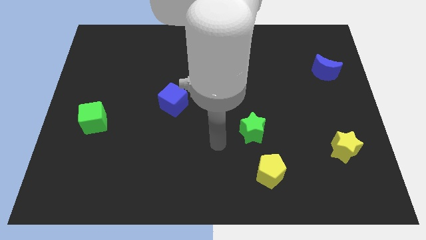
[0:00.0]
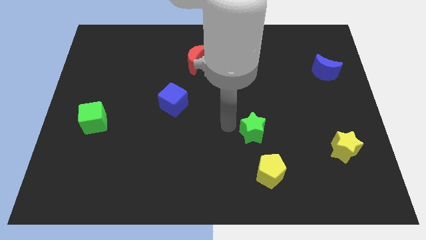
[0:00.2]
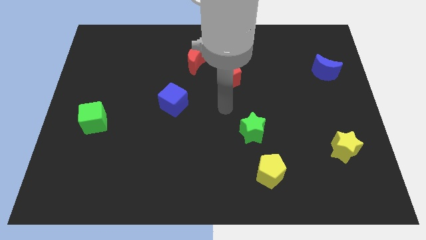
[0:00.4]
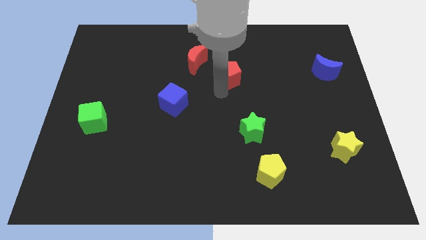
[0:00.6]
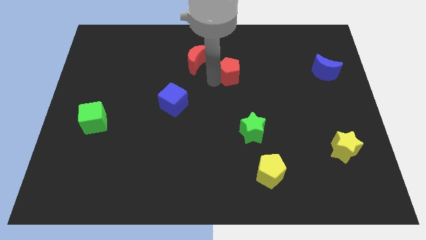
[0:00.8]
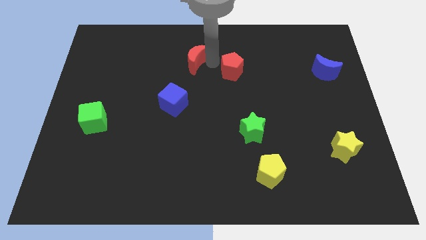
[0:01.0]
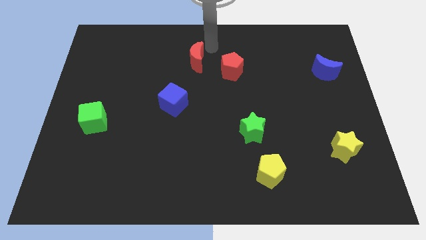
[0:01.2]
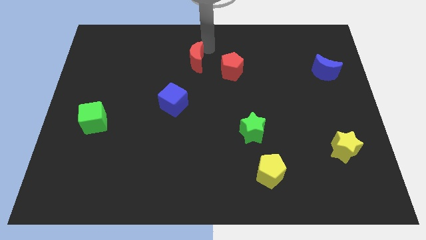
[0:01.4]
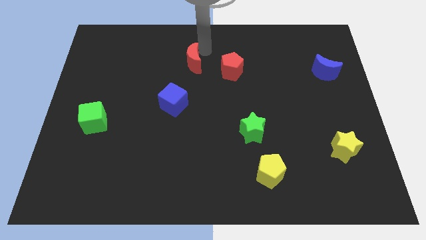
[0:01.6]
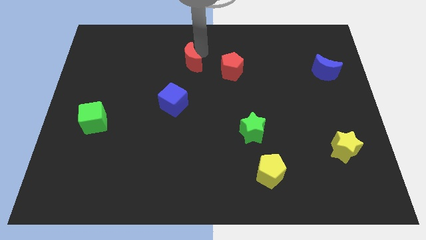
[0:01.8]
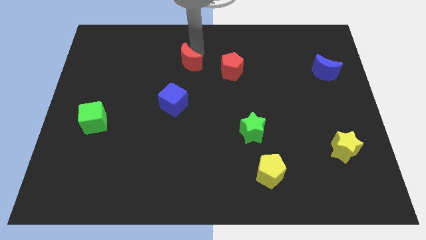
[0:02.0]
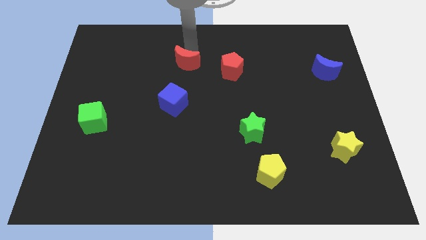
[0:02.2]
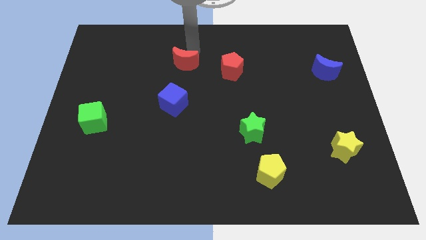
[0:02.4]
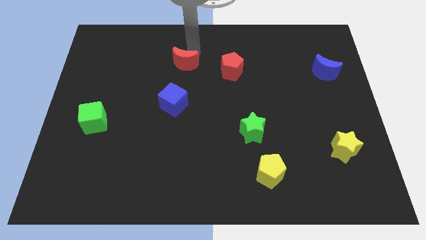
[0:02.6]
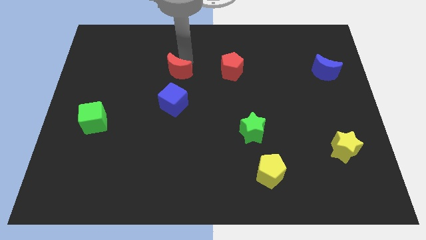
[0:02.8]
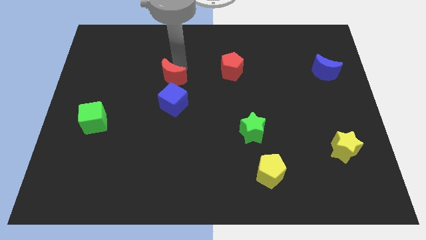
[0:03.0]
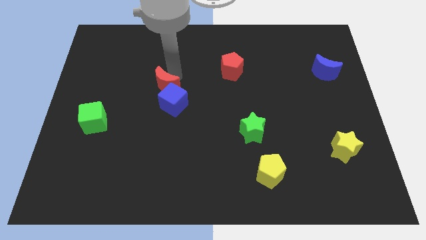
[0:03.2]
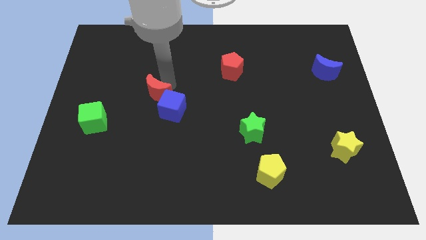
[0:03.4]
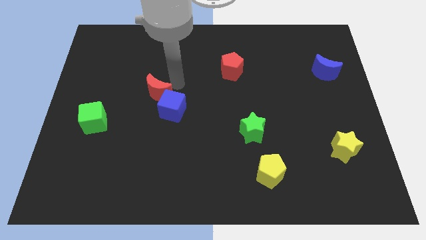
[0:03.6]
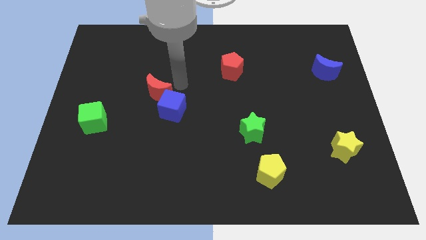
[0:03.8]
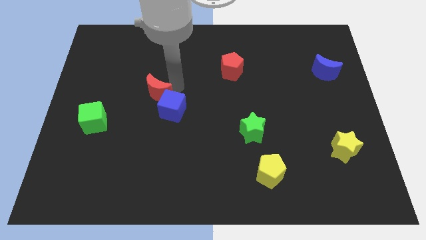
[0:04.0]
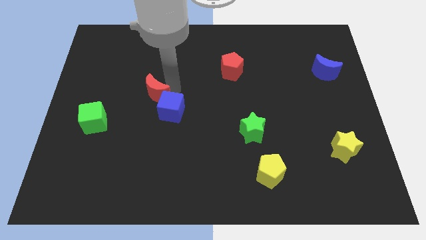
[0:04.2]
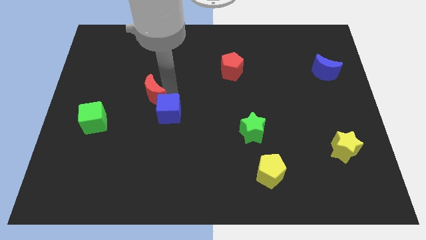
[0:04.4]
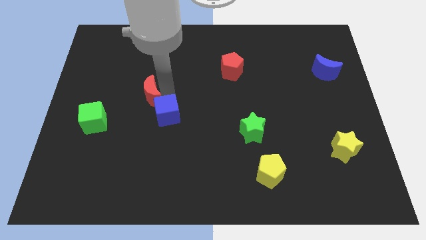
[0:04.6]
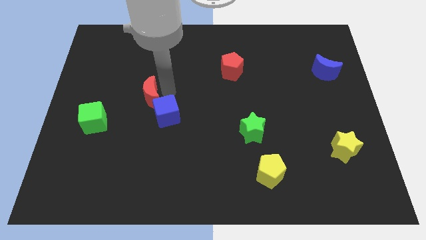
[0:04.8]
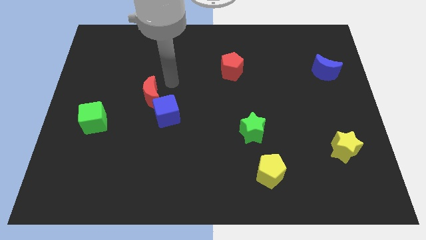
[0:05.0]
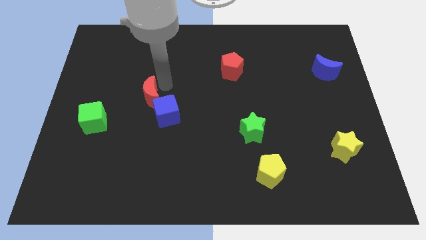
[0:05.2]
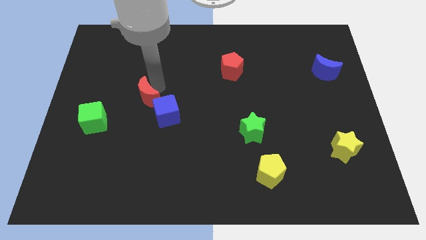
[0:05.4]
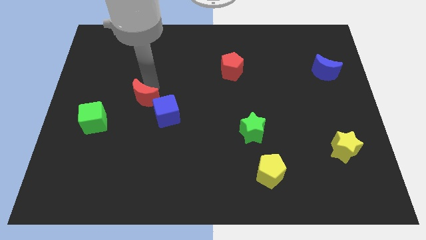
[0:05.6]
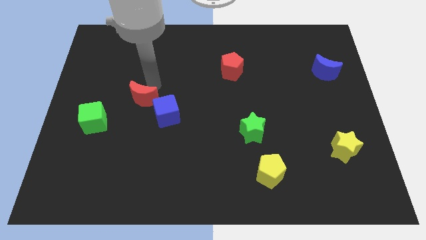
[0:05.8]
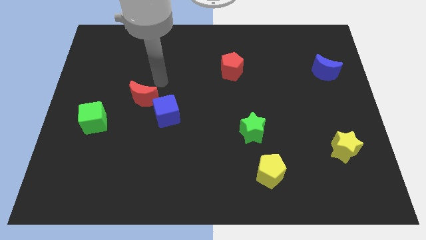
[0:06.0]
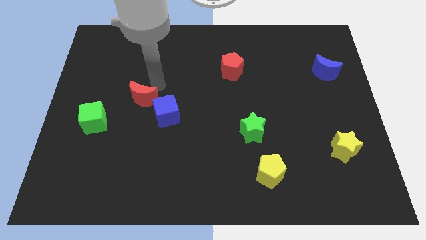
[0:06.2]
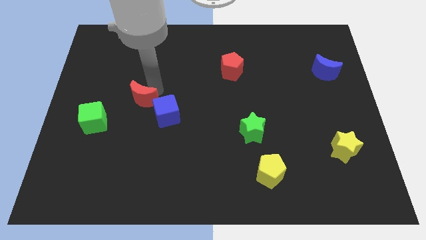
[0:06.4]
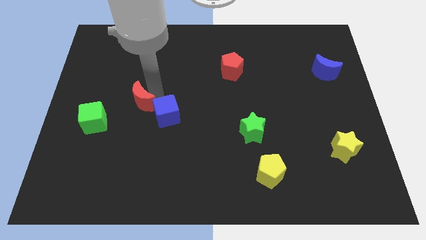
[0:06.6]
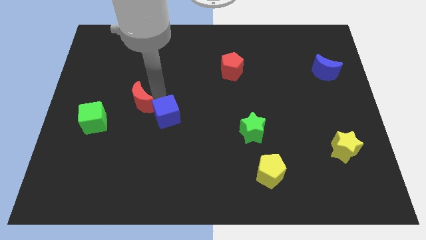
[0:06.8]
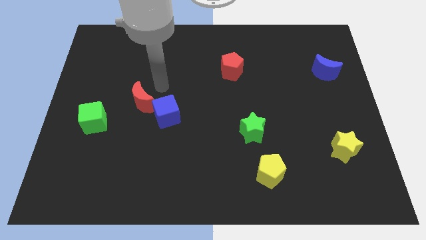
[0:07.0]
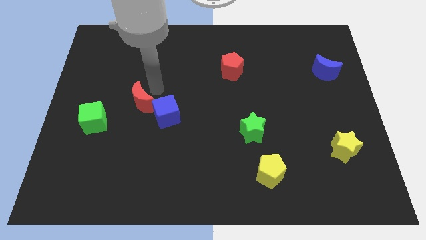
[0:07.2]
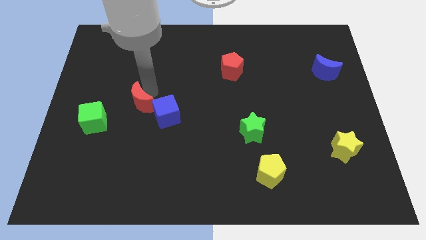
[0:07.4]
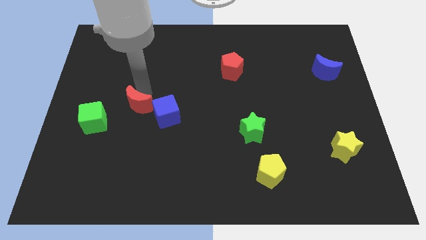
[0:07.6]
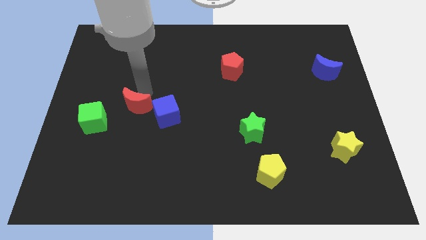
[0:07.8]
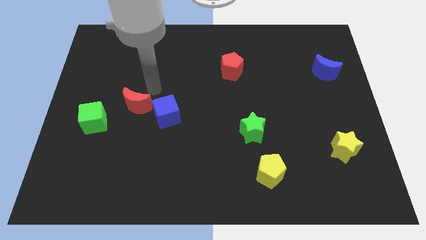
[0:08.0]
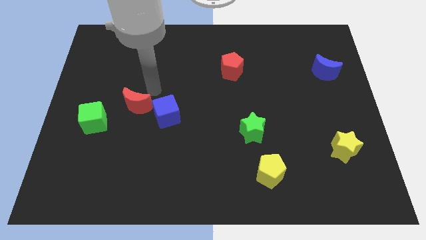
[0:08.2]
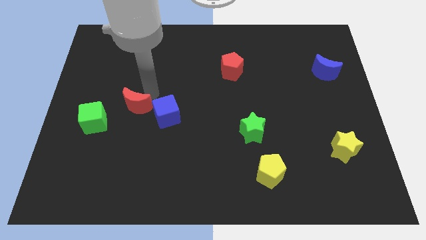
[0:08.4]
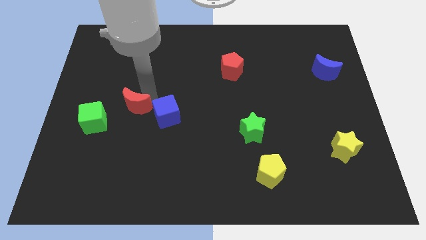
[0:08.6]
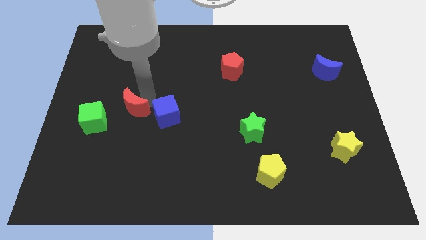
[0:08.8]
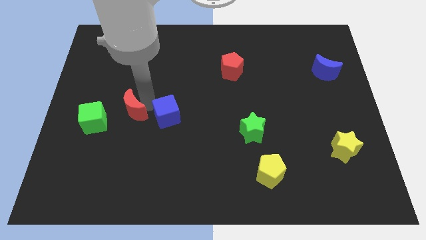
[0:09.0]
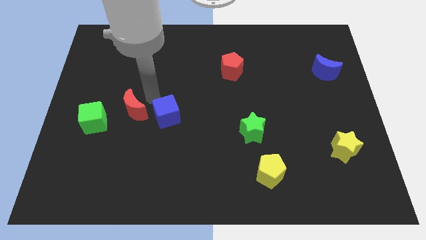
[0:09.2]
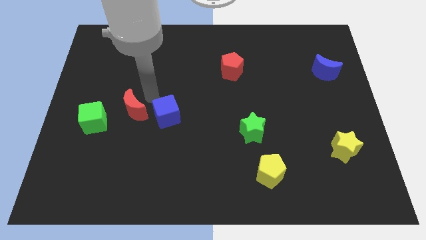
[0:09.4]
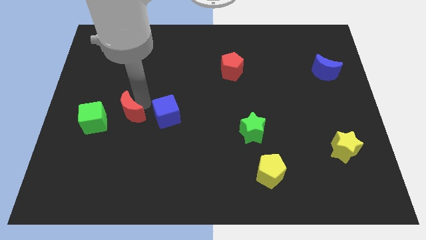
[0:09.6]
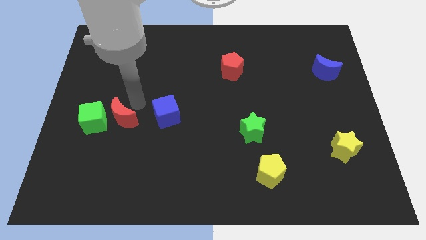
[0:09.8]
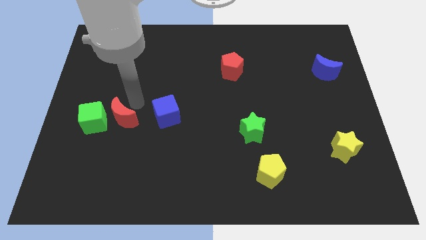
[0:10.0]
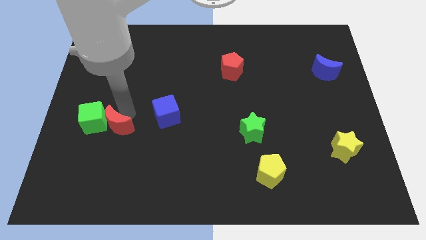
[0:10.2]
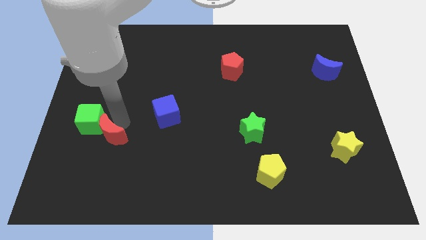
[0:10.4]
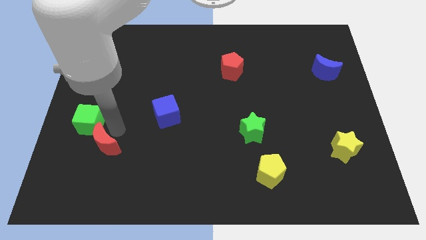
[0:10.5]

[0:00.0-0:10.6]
push the red moon to the bottom of the green cube

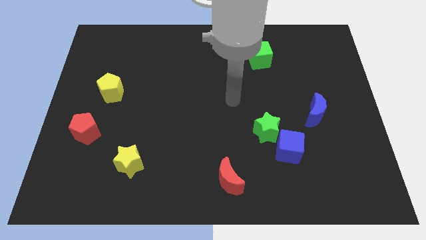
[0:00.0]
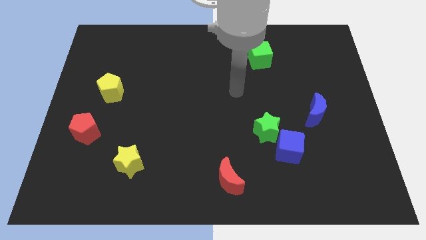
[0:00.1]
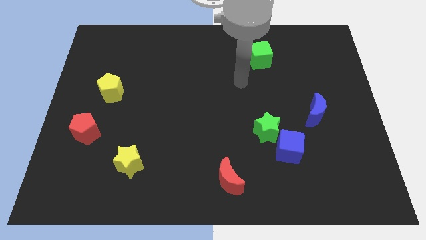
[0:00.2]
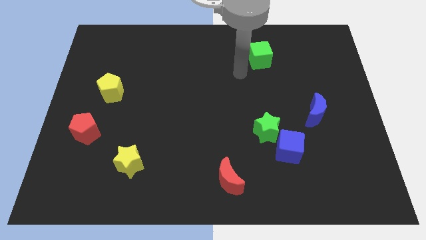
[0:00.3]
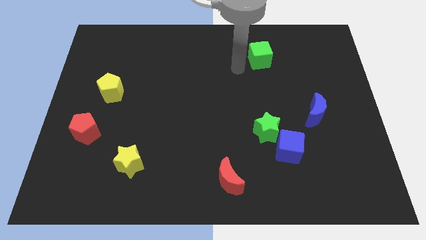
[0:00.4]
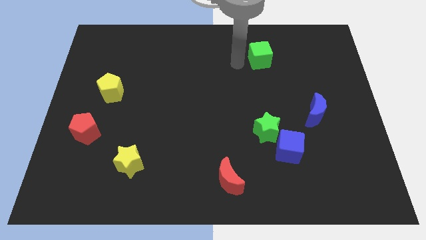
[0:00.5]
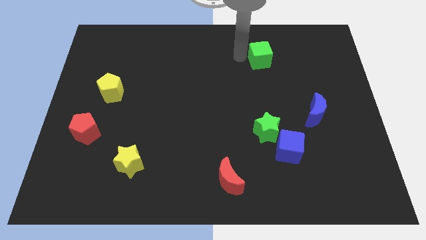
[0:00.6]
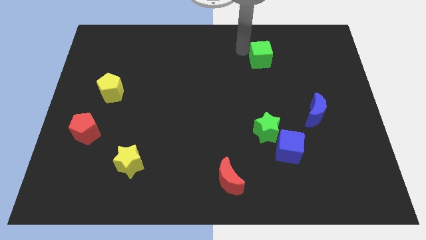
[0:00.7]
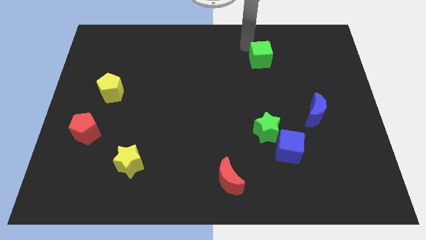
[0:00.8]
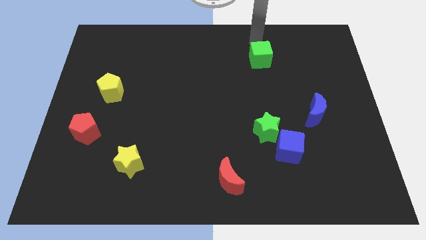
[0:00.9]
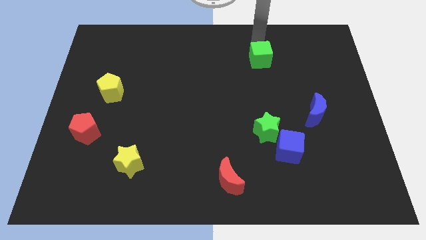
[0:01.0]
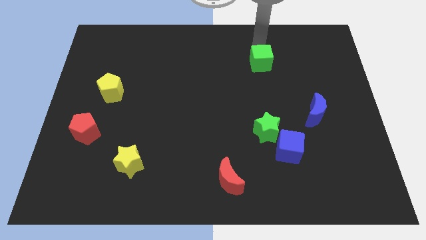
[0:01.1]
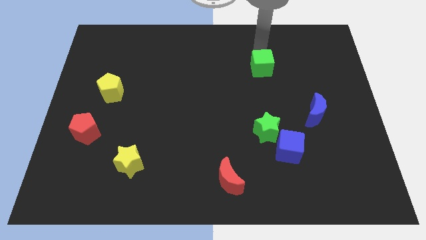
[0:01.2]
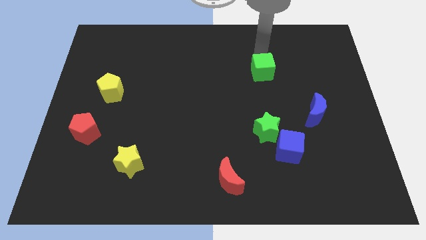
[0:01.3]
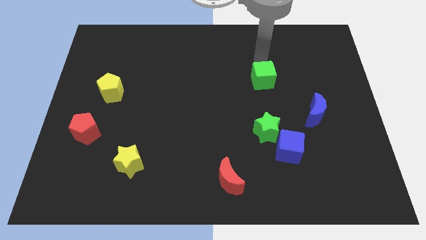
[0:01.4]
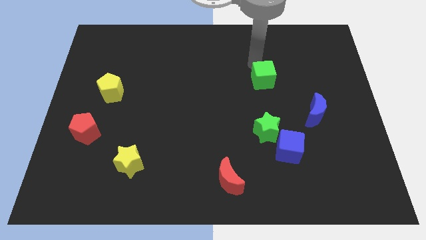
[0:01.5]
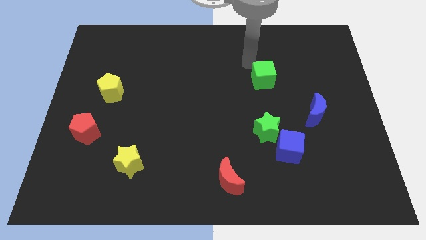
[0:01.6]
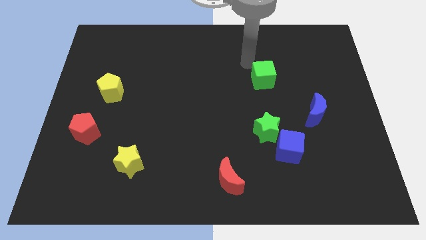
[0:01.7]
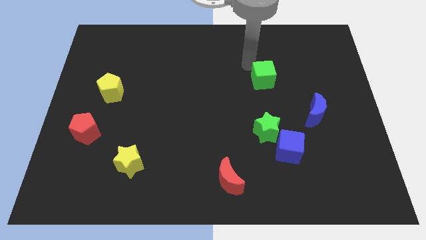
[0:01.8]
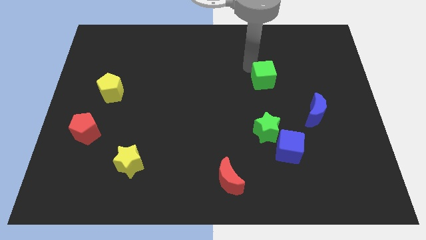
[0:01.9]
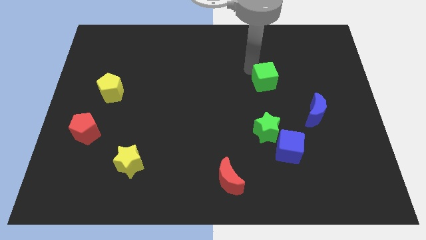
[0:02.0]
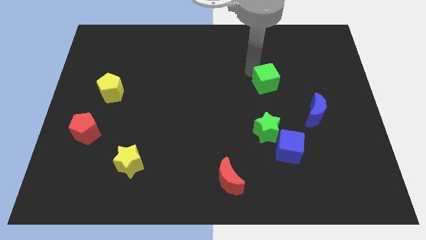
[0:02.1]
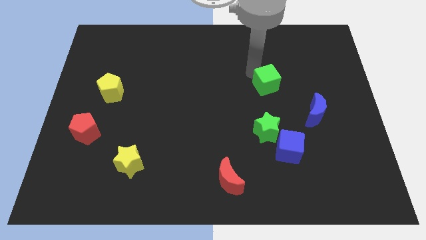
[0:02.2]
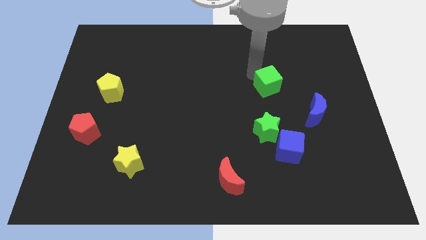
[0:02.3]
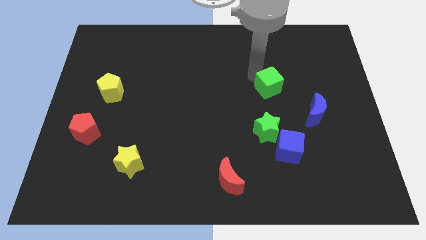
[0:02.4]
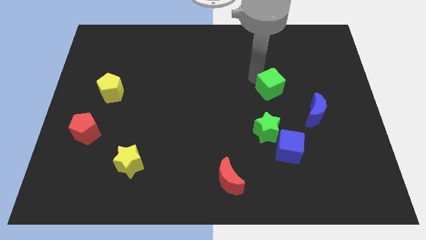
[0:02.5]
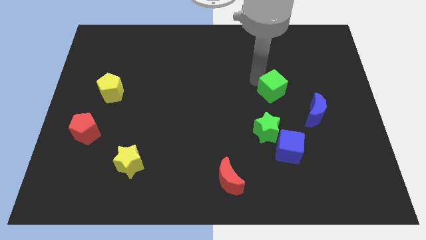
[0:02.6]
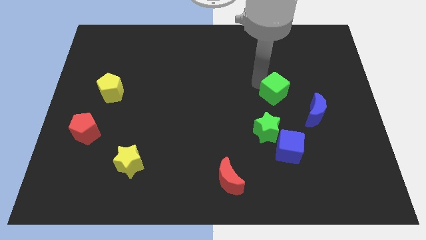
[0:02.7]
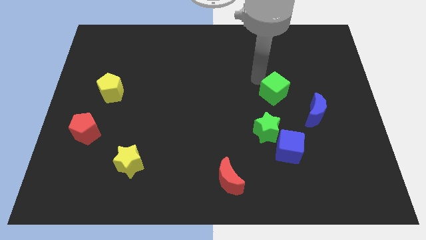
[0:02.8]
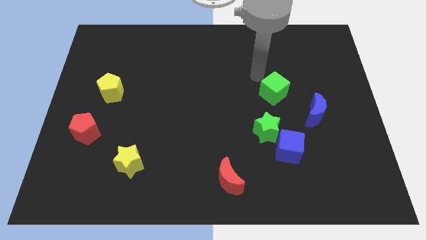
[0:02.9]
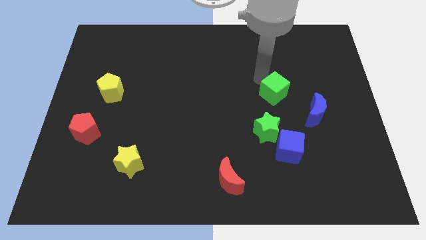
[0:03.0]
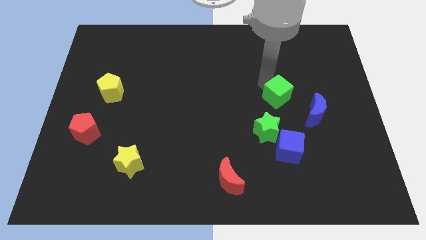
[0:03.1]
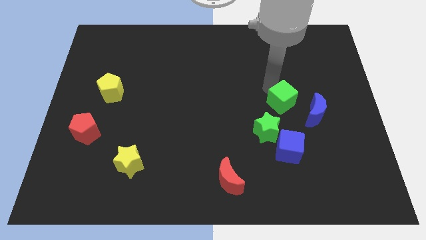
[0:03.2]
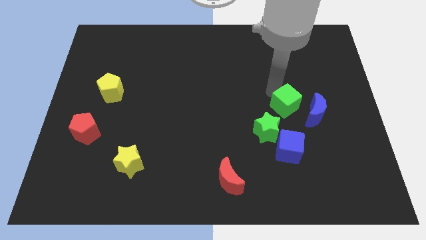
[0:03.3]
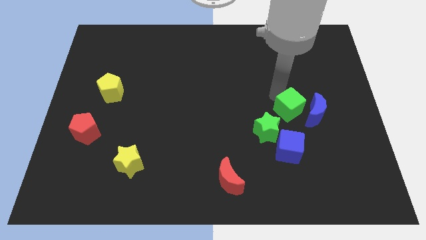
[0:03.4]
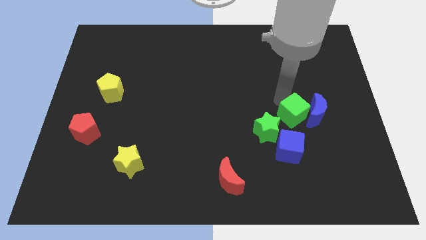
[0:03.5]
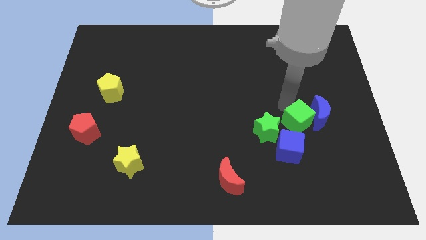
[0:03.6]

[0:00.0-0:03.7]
put the green cube diagonally up and to the right of the blue cube
